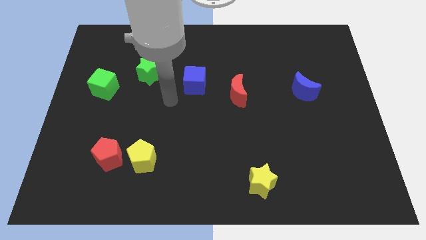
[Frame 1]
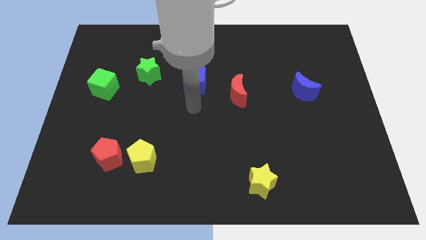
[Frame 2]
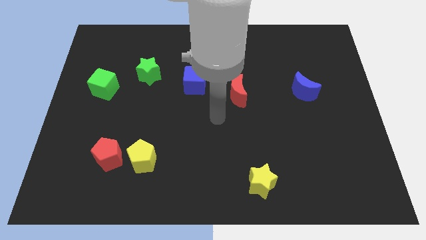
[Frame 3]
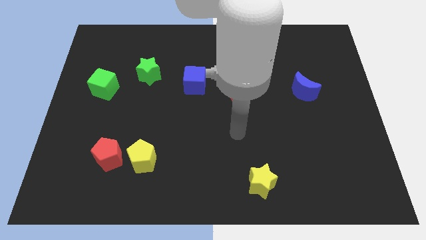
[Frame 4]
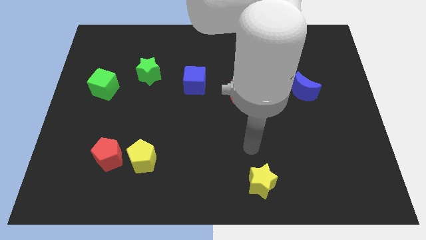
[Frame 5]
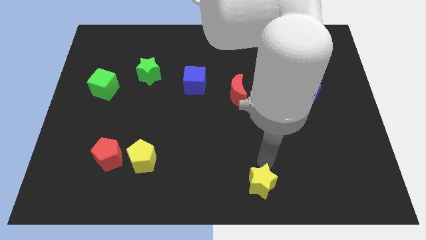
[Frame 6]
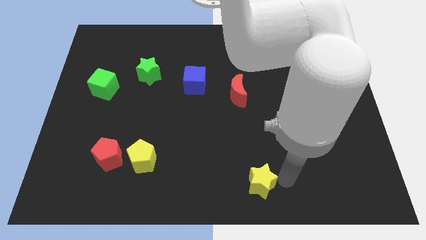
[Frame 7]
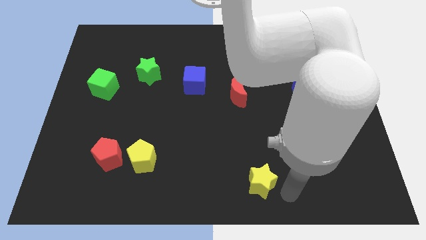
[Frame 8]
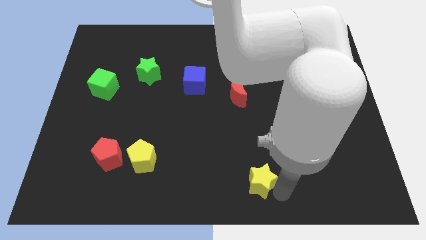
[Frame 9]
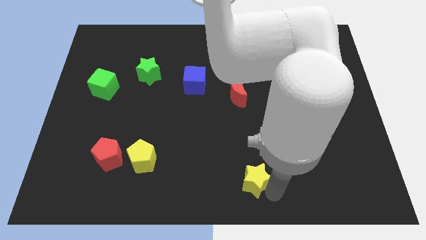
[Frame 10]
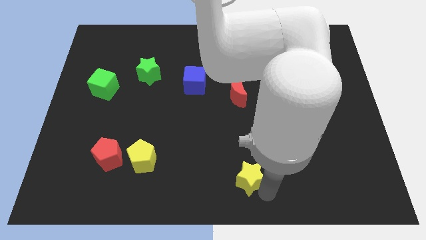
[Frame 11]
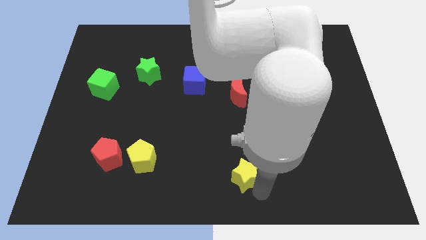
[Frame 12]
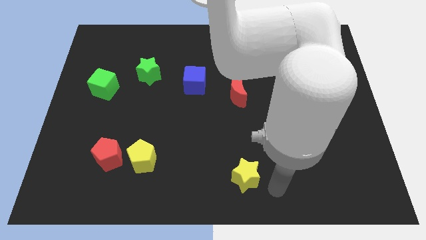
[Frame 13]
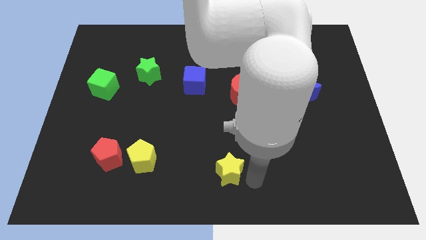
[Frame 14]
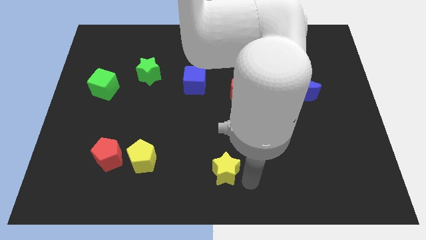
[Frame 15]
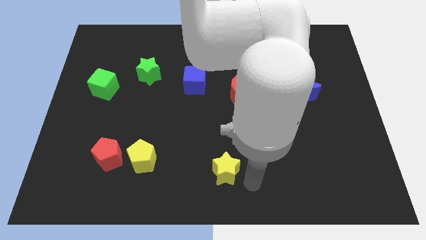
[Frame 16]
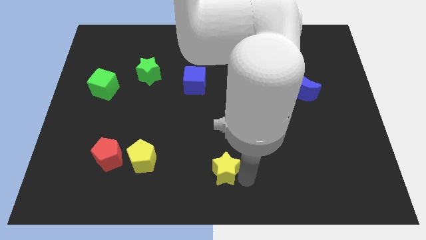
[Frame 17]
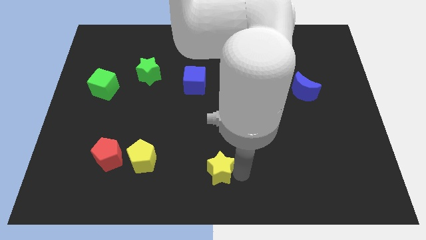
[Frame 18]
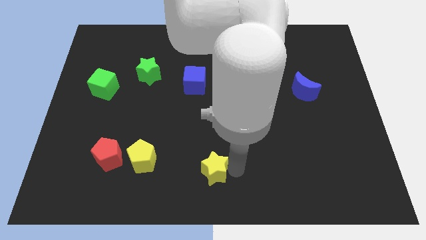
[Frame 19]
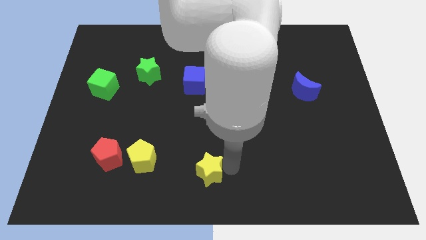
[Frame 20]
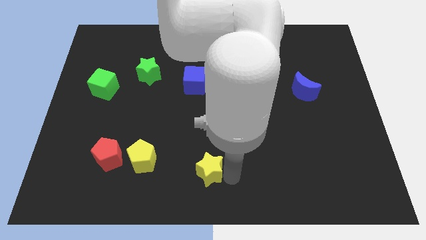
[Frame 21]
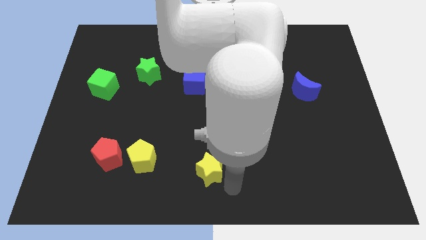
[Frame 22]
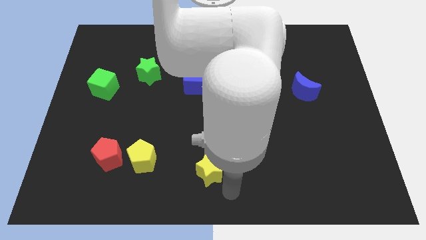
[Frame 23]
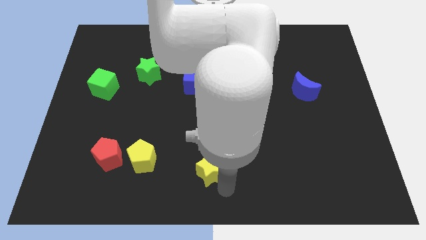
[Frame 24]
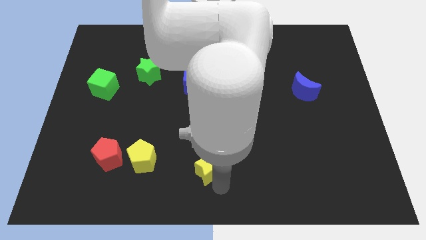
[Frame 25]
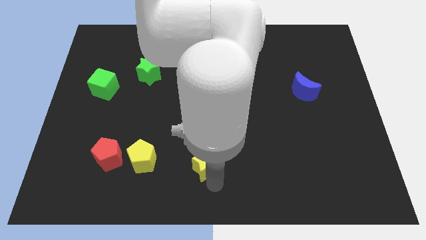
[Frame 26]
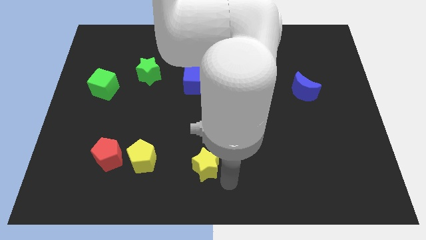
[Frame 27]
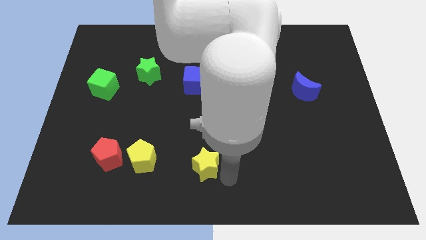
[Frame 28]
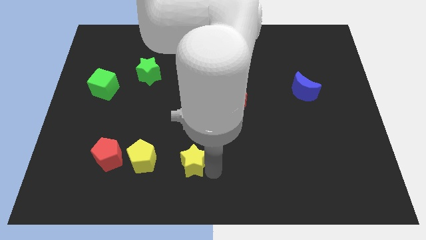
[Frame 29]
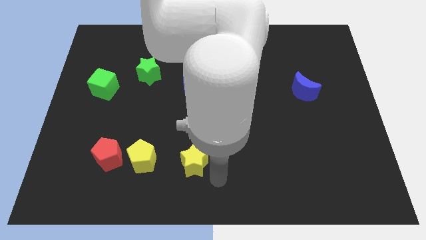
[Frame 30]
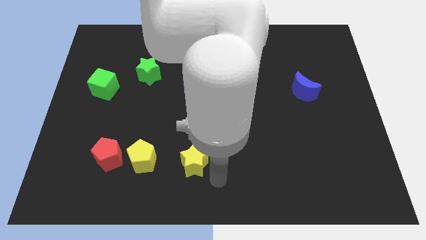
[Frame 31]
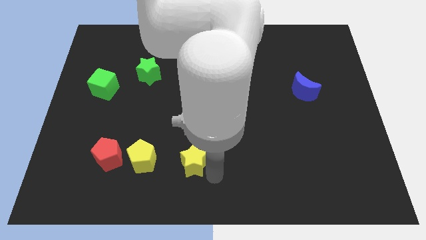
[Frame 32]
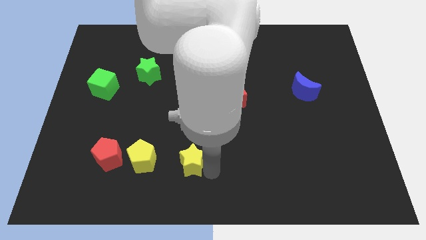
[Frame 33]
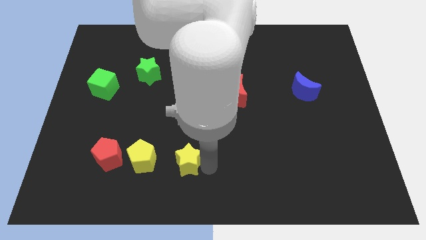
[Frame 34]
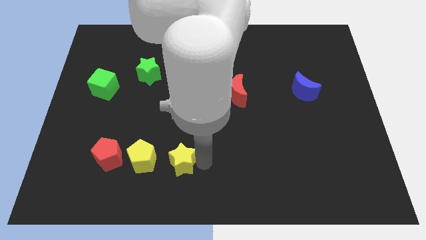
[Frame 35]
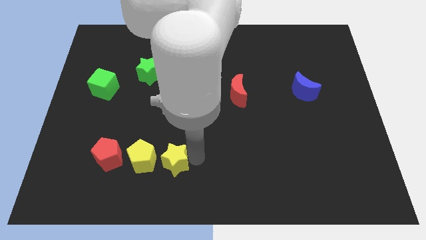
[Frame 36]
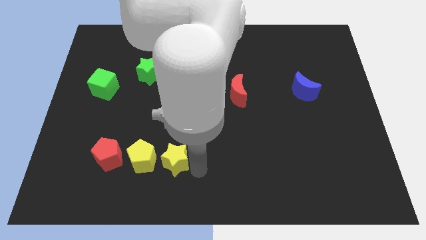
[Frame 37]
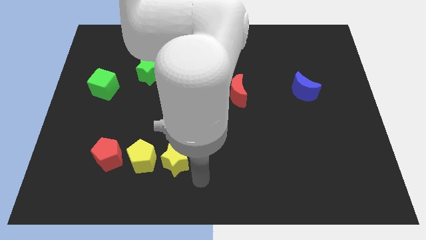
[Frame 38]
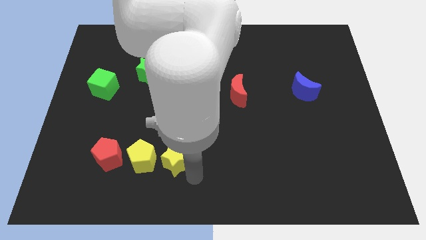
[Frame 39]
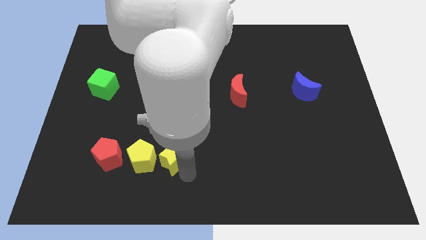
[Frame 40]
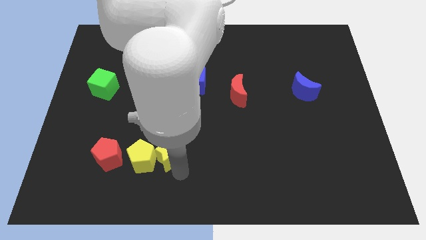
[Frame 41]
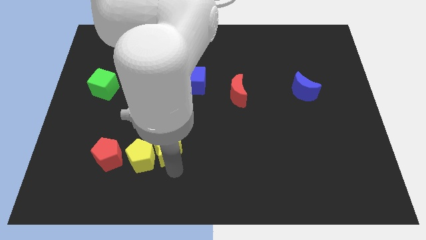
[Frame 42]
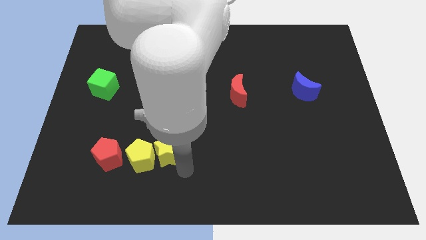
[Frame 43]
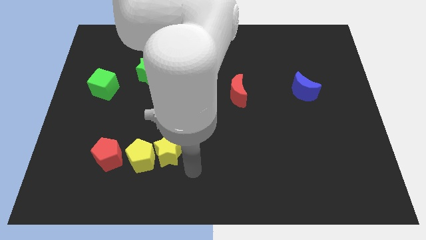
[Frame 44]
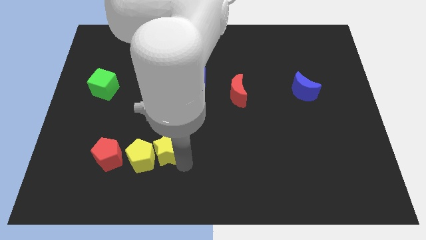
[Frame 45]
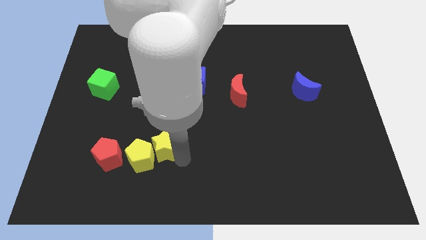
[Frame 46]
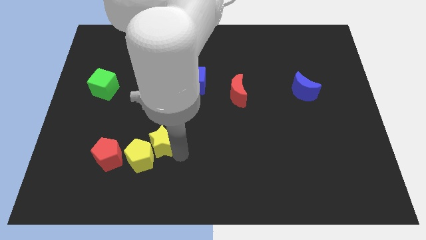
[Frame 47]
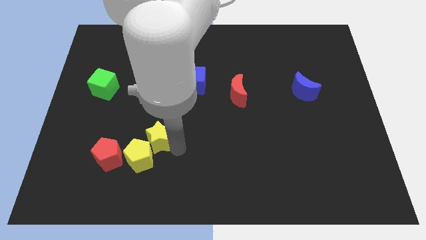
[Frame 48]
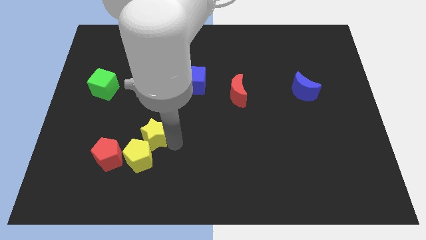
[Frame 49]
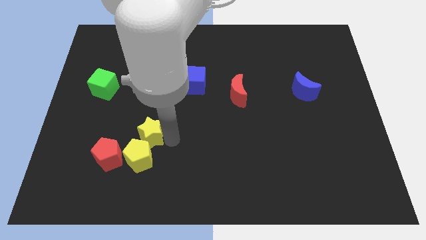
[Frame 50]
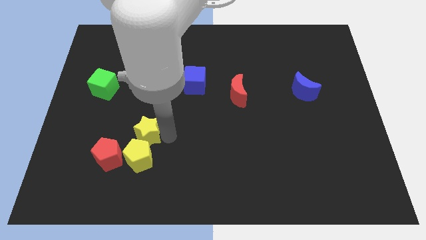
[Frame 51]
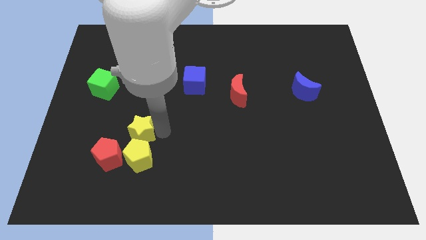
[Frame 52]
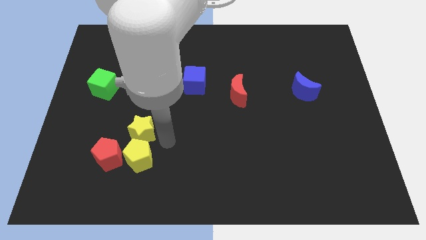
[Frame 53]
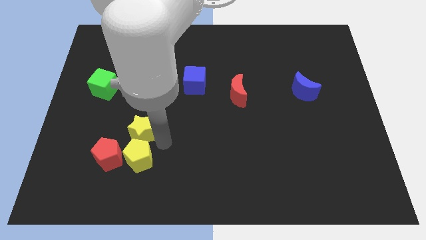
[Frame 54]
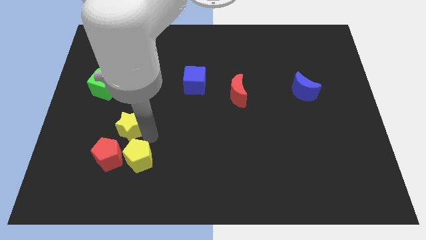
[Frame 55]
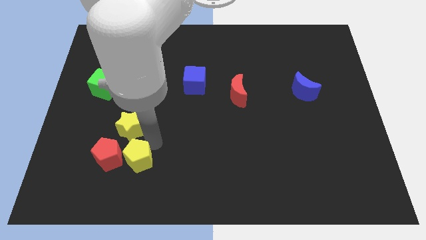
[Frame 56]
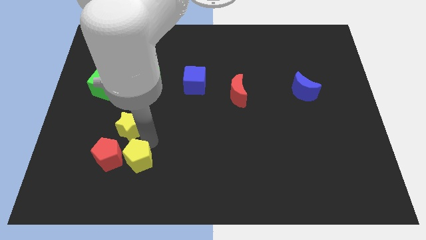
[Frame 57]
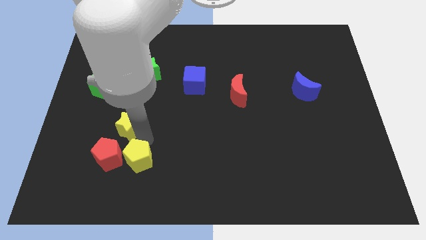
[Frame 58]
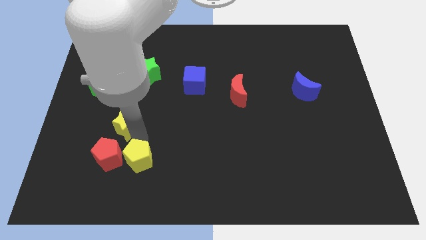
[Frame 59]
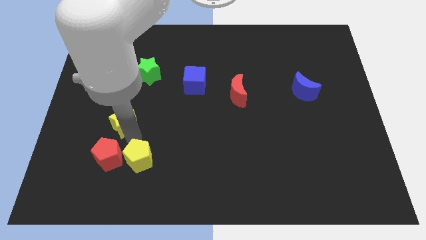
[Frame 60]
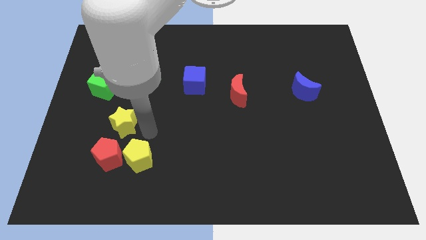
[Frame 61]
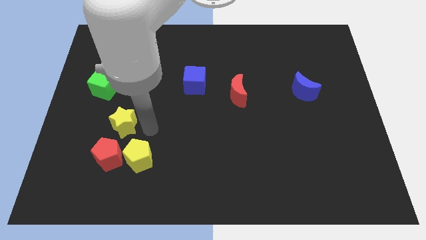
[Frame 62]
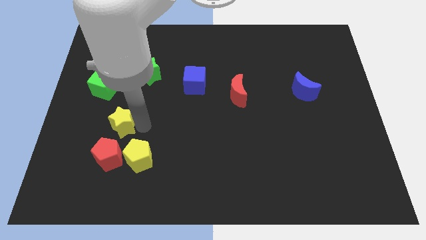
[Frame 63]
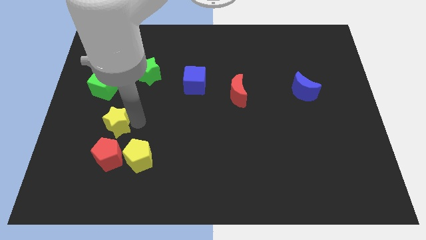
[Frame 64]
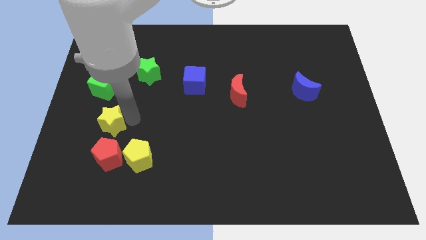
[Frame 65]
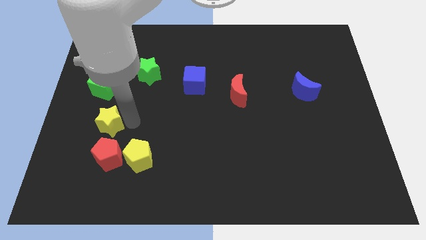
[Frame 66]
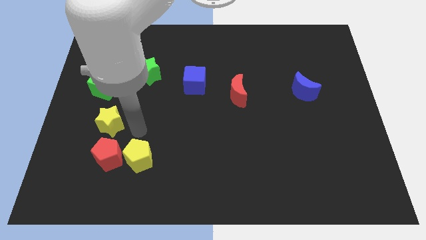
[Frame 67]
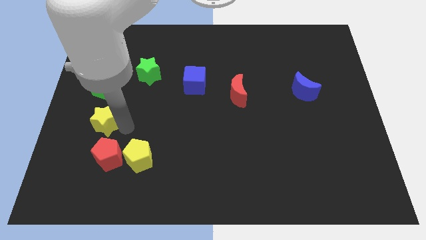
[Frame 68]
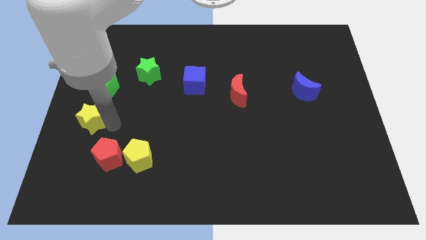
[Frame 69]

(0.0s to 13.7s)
slide the yellow star to the left side of the board
